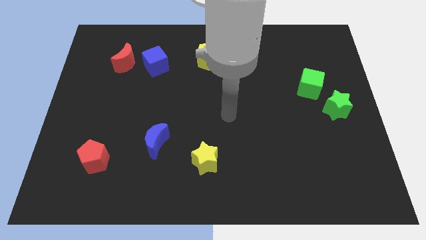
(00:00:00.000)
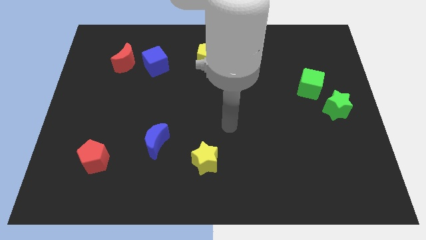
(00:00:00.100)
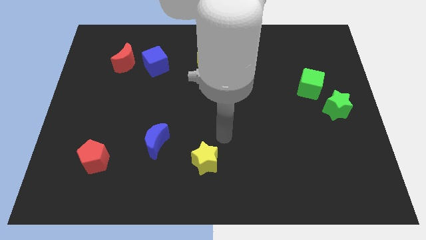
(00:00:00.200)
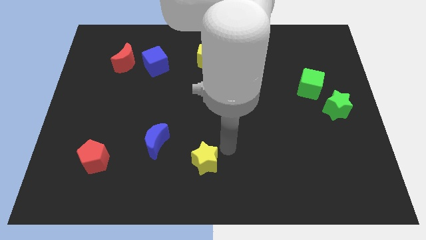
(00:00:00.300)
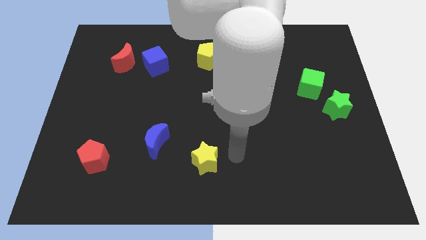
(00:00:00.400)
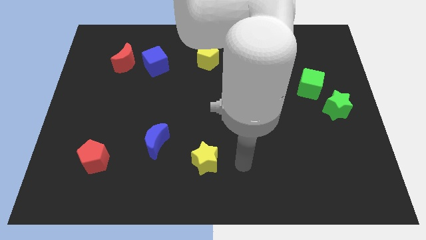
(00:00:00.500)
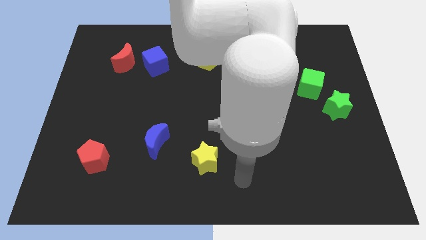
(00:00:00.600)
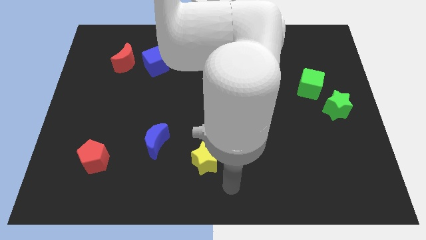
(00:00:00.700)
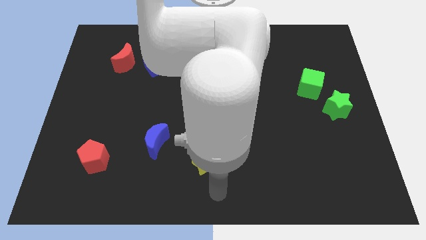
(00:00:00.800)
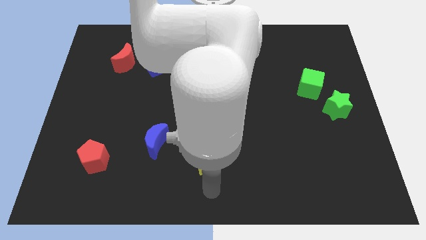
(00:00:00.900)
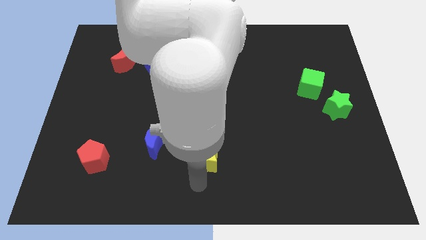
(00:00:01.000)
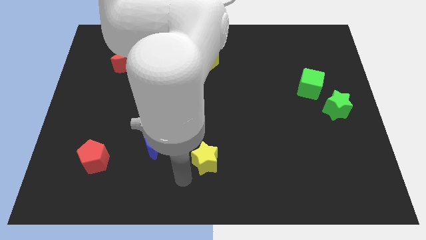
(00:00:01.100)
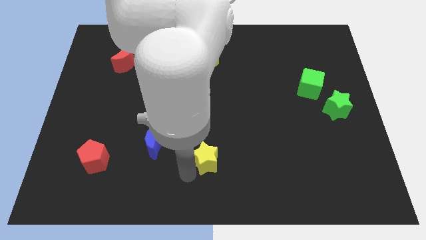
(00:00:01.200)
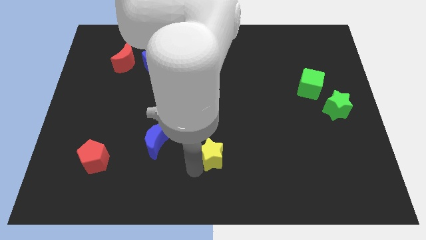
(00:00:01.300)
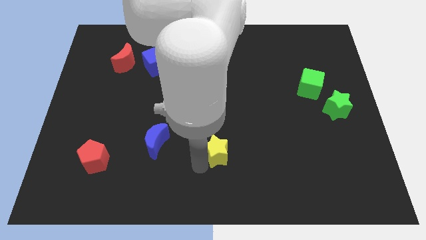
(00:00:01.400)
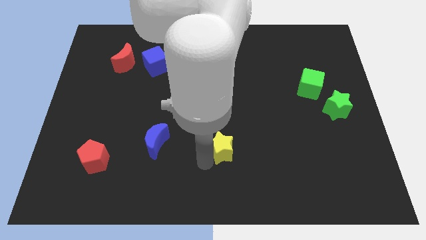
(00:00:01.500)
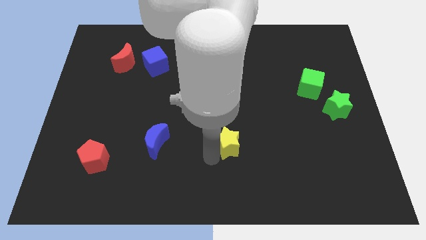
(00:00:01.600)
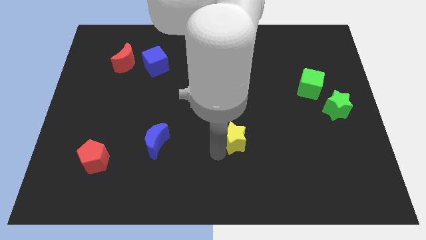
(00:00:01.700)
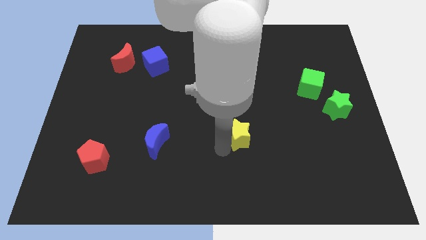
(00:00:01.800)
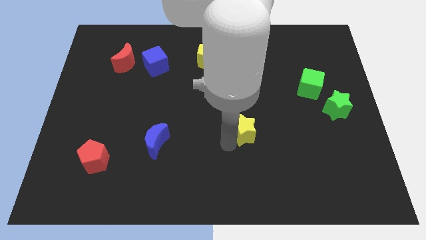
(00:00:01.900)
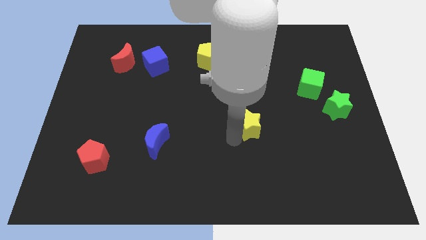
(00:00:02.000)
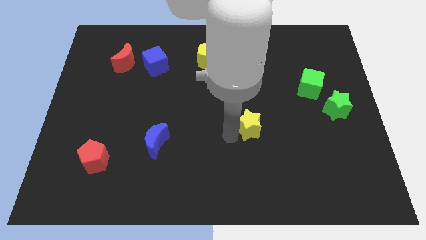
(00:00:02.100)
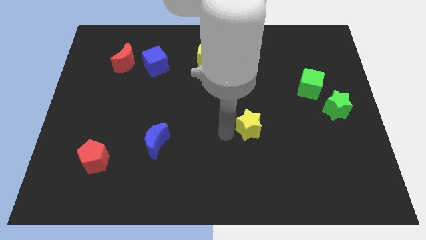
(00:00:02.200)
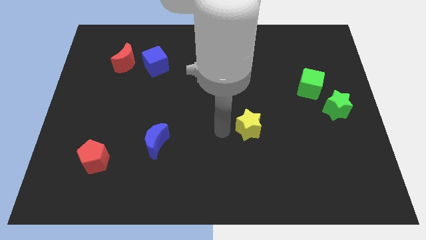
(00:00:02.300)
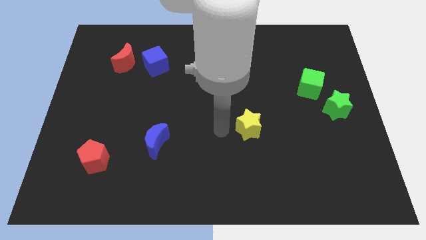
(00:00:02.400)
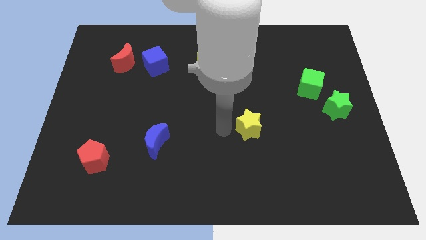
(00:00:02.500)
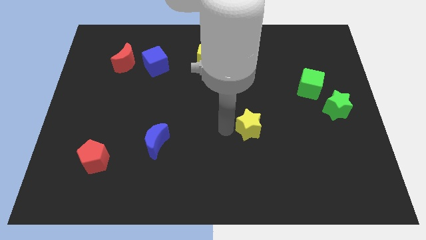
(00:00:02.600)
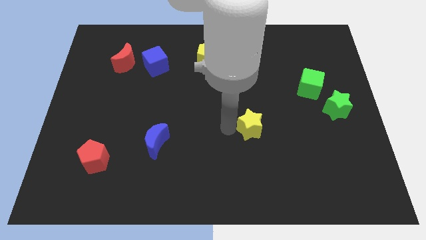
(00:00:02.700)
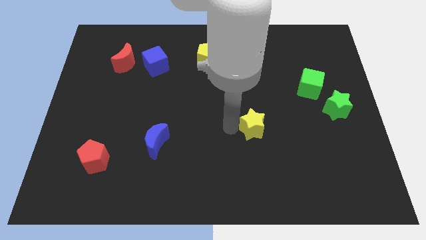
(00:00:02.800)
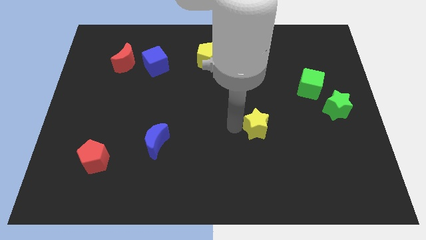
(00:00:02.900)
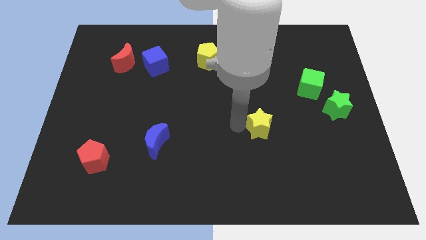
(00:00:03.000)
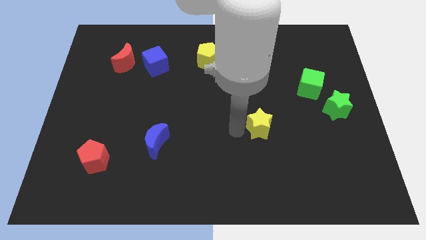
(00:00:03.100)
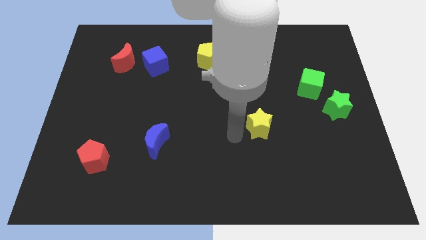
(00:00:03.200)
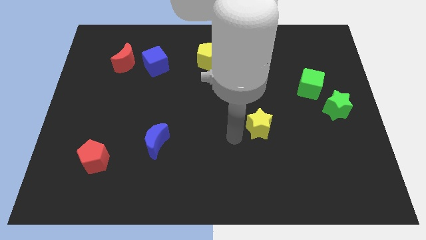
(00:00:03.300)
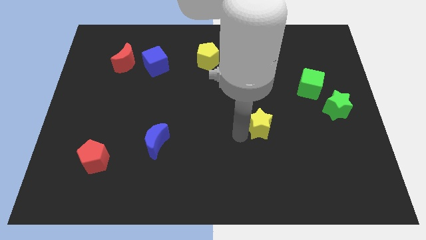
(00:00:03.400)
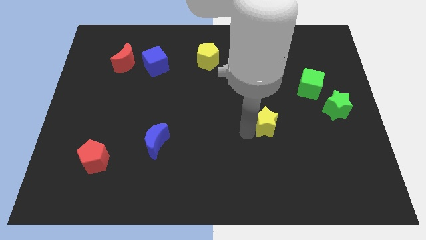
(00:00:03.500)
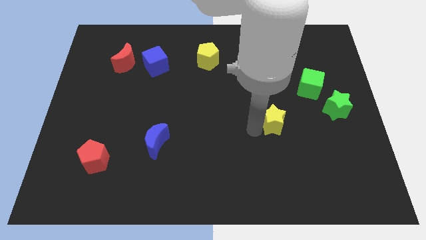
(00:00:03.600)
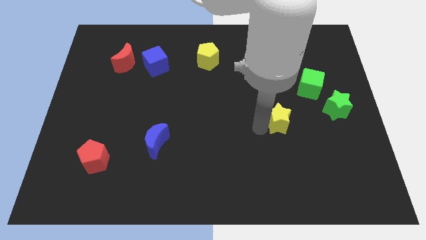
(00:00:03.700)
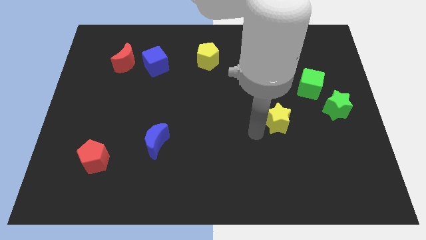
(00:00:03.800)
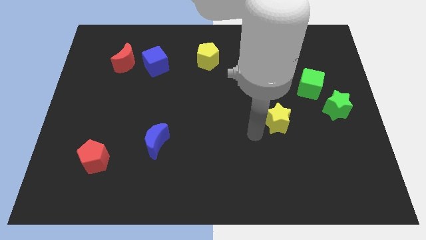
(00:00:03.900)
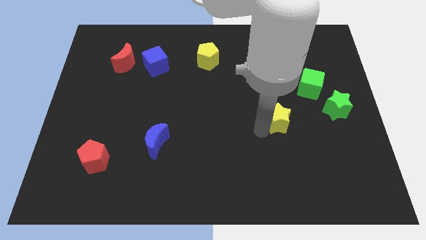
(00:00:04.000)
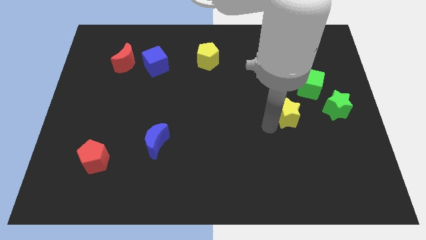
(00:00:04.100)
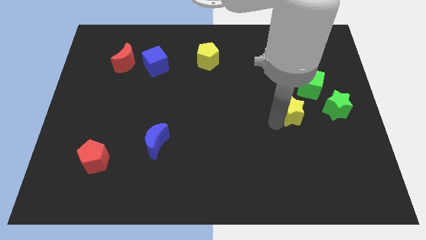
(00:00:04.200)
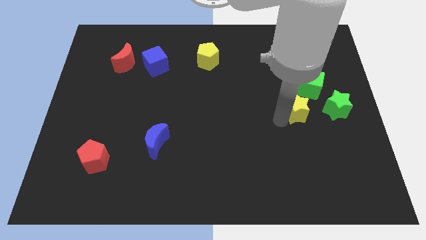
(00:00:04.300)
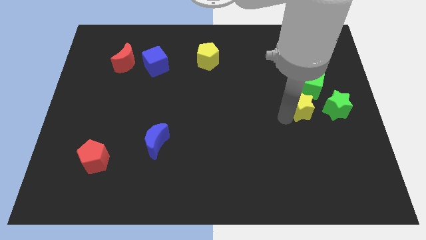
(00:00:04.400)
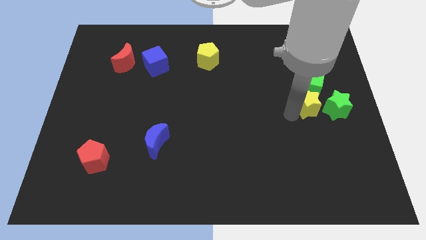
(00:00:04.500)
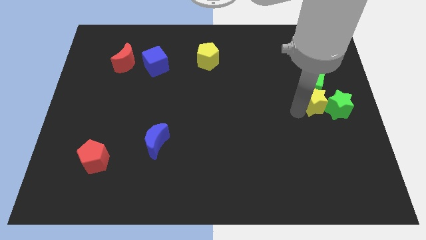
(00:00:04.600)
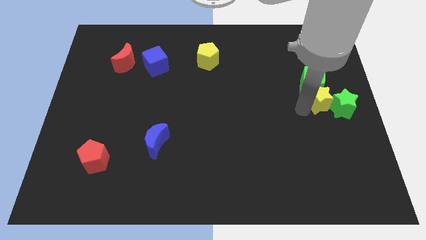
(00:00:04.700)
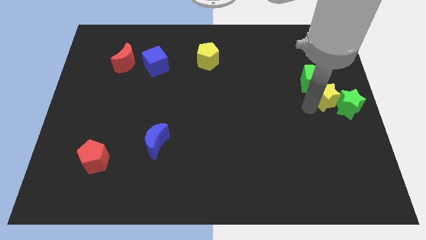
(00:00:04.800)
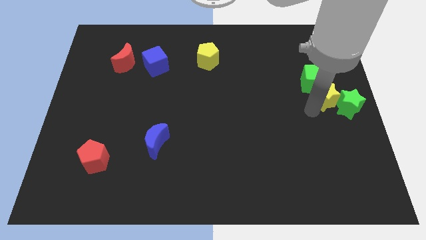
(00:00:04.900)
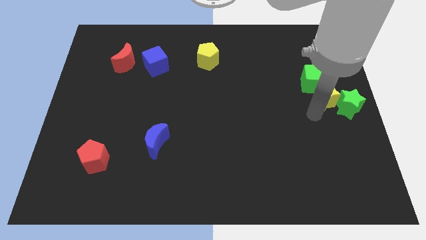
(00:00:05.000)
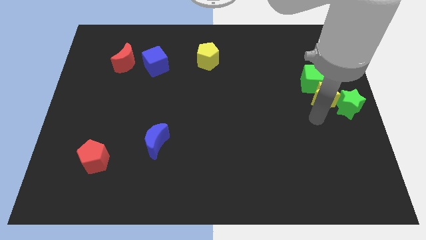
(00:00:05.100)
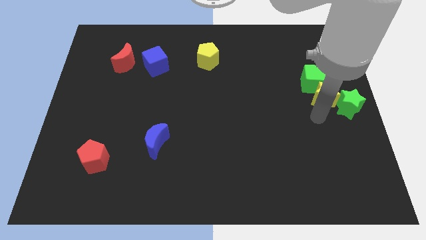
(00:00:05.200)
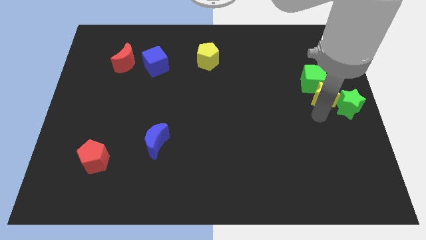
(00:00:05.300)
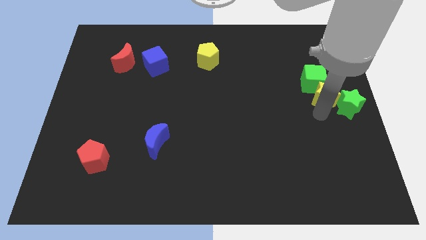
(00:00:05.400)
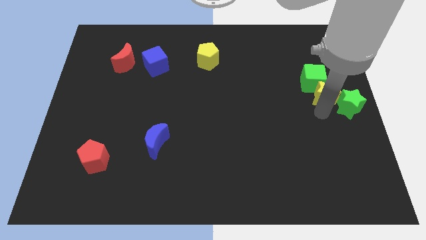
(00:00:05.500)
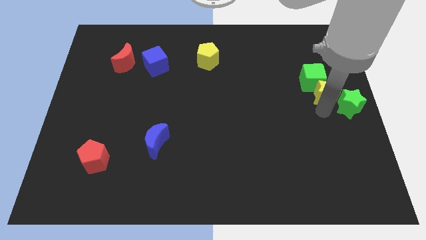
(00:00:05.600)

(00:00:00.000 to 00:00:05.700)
push the yellow star to the top of the green star

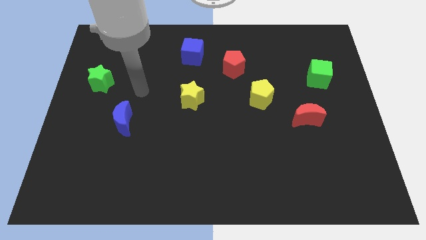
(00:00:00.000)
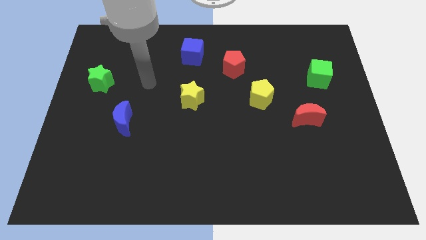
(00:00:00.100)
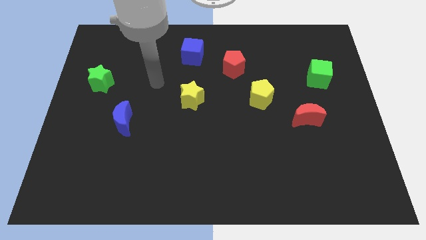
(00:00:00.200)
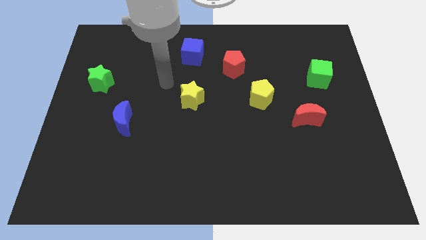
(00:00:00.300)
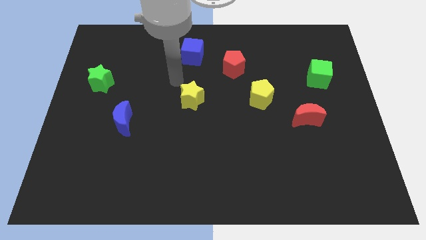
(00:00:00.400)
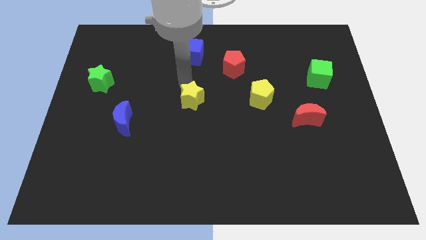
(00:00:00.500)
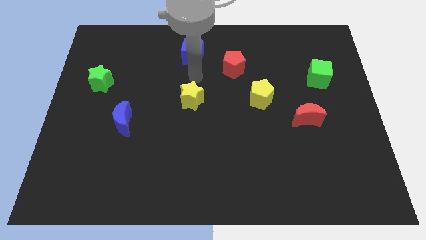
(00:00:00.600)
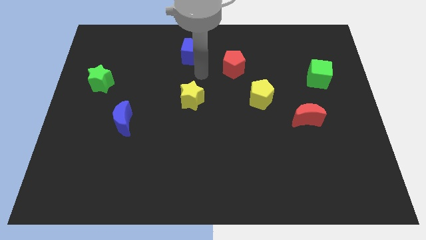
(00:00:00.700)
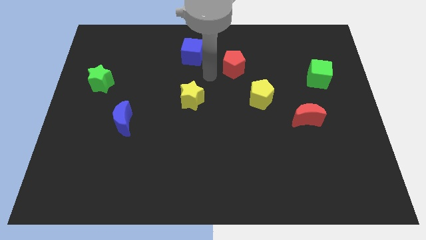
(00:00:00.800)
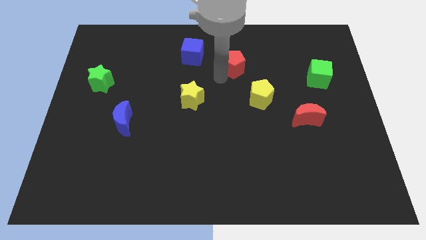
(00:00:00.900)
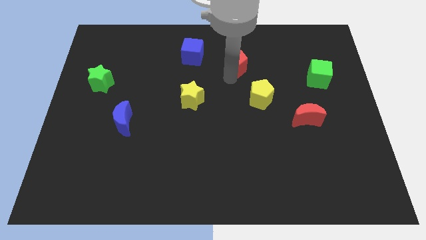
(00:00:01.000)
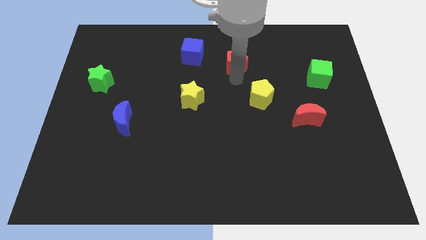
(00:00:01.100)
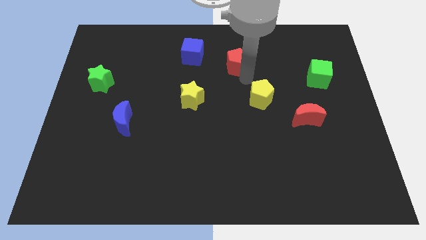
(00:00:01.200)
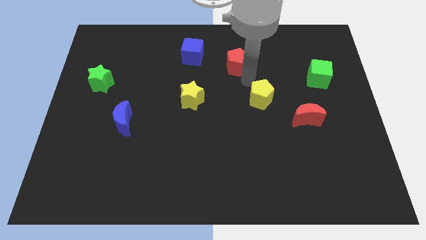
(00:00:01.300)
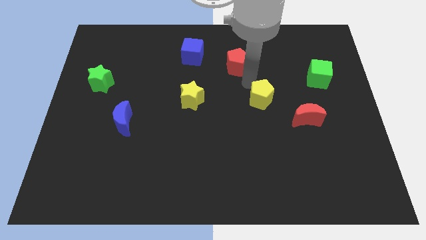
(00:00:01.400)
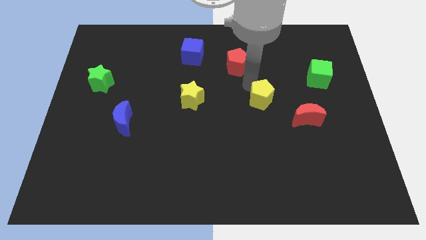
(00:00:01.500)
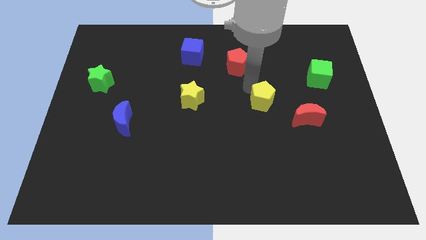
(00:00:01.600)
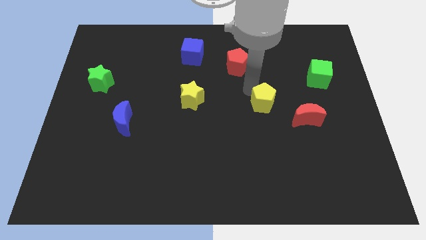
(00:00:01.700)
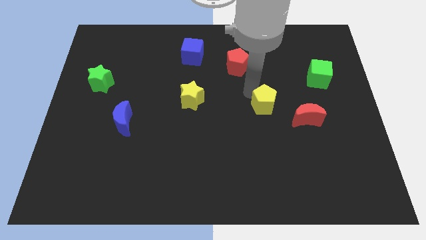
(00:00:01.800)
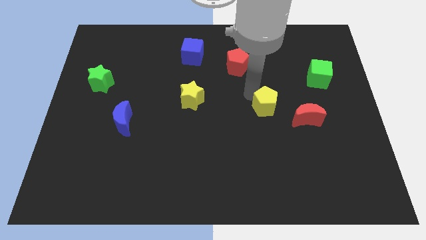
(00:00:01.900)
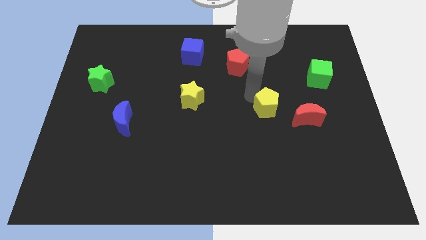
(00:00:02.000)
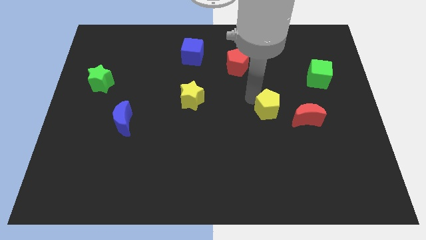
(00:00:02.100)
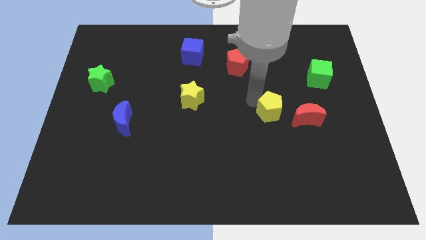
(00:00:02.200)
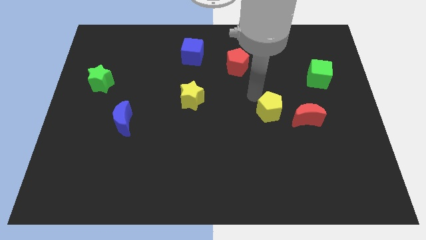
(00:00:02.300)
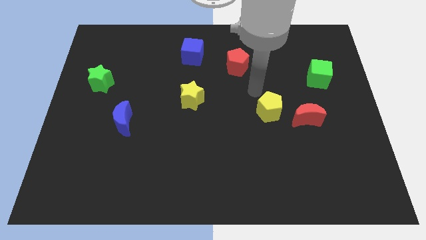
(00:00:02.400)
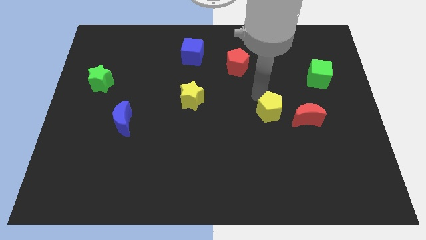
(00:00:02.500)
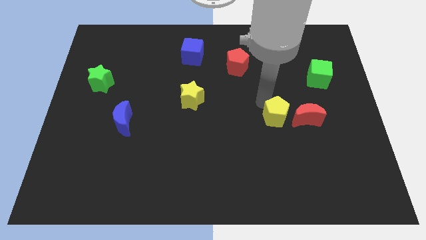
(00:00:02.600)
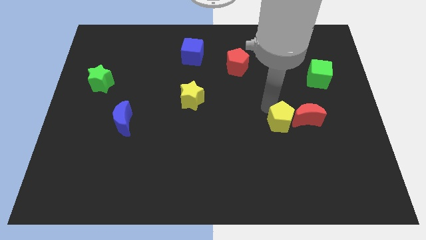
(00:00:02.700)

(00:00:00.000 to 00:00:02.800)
push the yellow pentagon diagonally down and to the left of the red moon
